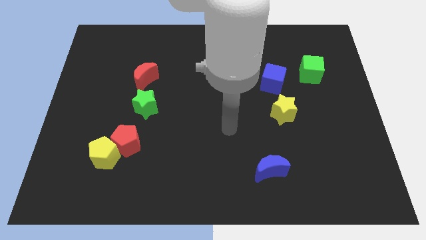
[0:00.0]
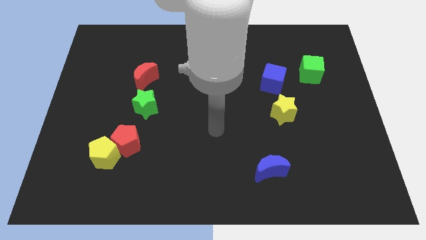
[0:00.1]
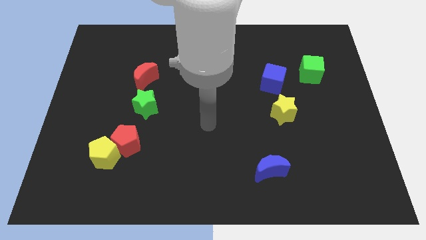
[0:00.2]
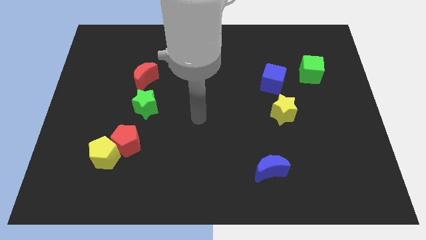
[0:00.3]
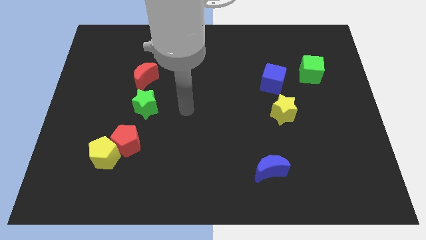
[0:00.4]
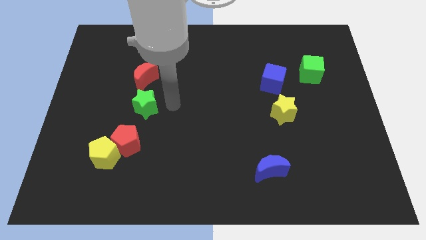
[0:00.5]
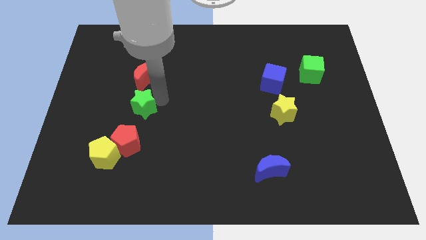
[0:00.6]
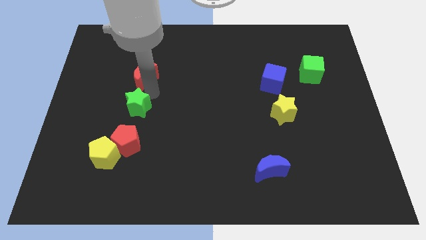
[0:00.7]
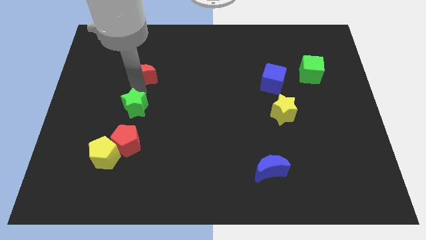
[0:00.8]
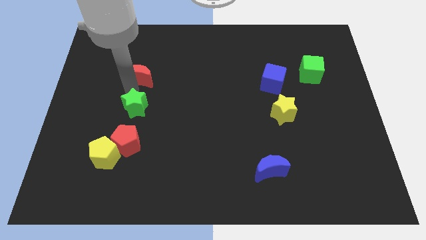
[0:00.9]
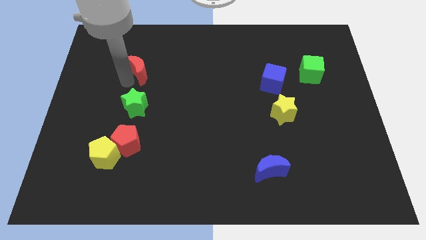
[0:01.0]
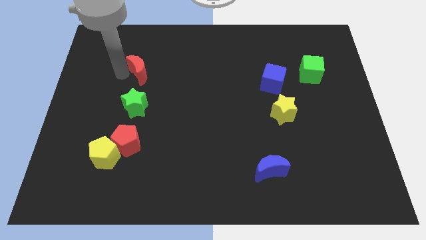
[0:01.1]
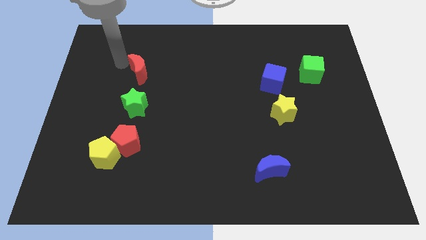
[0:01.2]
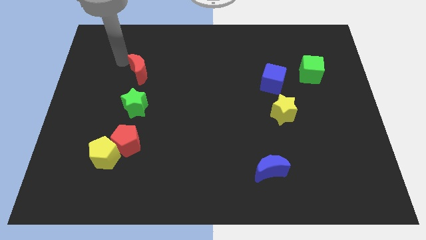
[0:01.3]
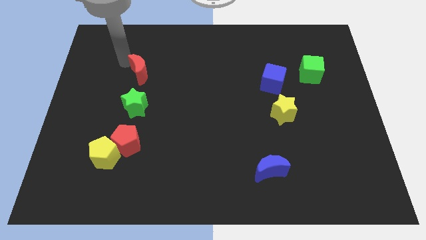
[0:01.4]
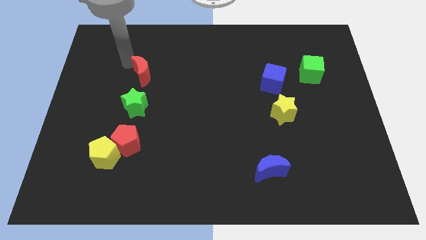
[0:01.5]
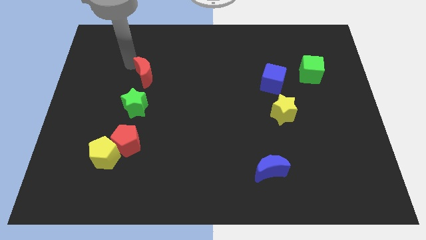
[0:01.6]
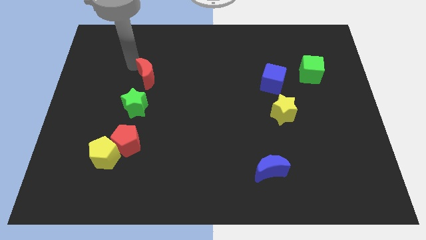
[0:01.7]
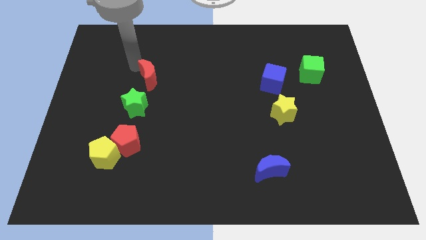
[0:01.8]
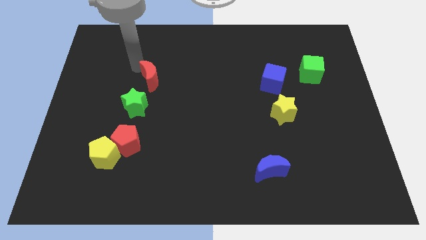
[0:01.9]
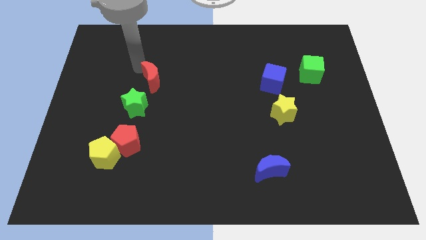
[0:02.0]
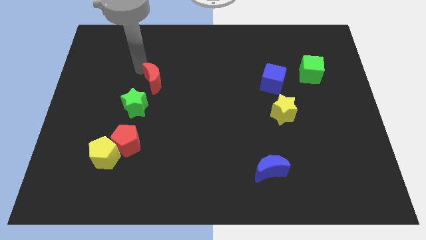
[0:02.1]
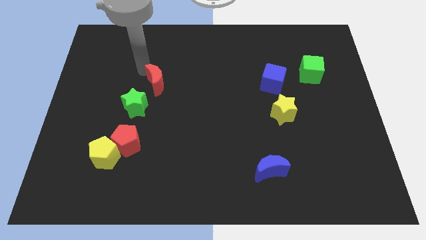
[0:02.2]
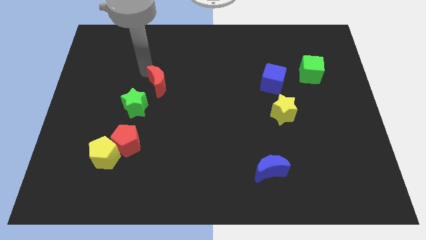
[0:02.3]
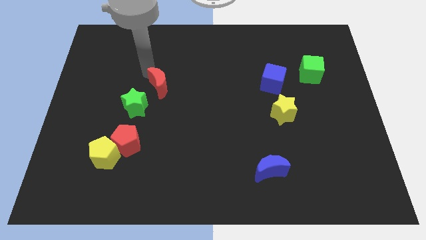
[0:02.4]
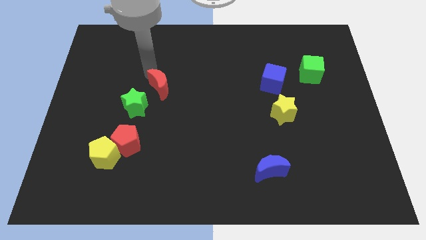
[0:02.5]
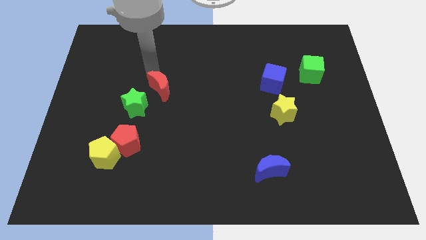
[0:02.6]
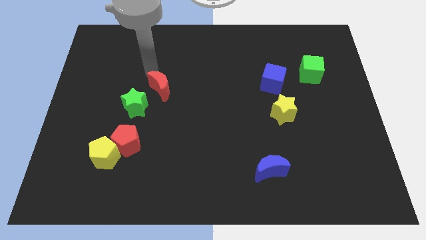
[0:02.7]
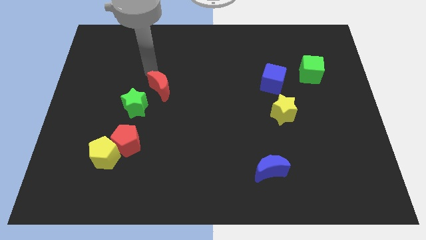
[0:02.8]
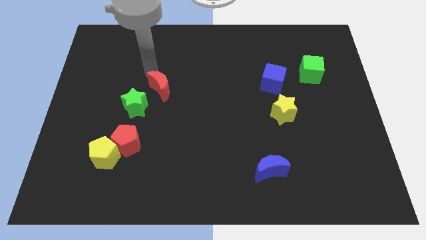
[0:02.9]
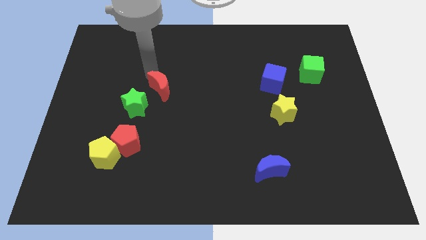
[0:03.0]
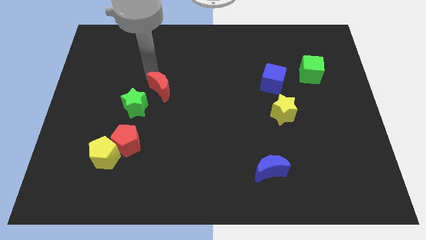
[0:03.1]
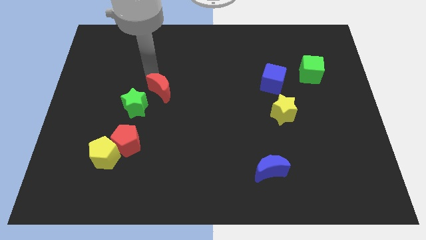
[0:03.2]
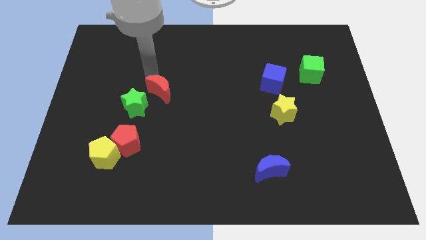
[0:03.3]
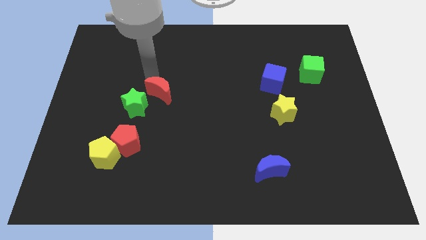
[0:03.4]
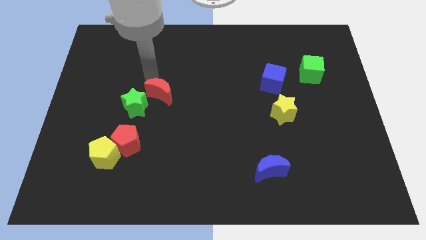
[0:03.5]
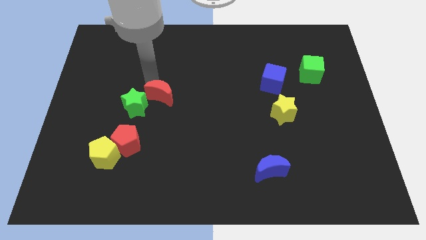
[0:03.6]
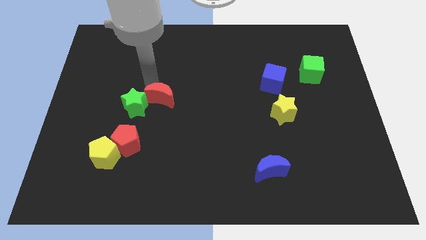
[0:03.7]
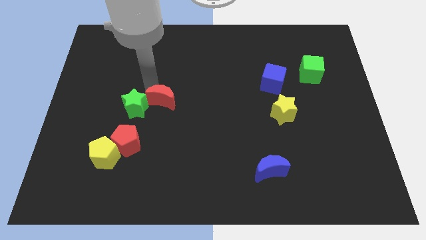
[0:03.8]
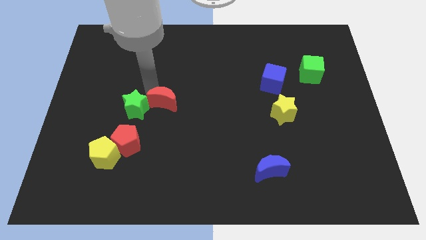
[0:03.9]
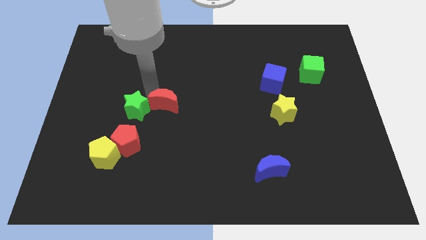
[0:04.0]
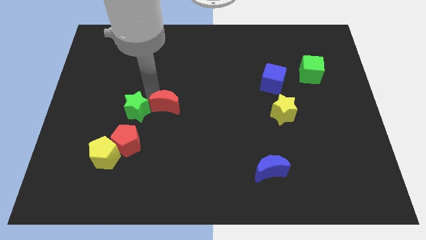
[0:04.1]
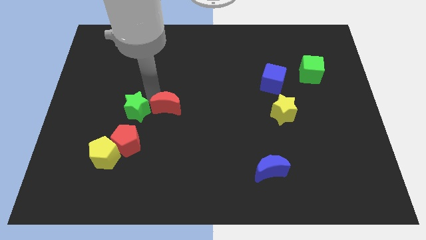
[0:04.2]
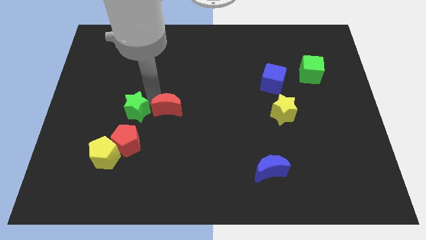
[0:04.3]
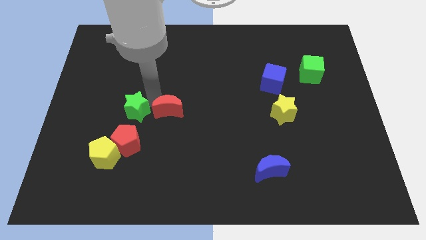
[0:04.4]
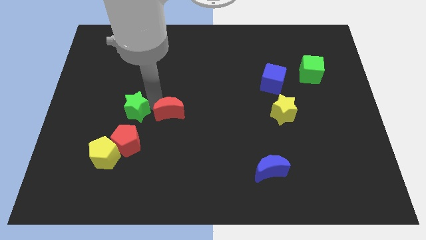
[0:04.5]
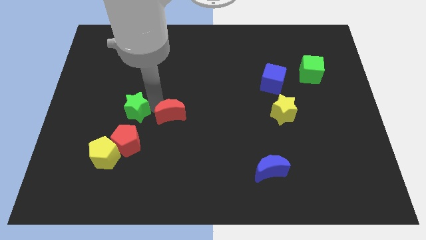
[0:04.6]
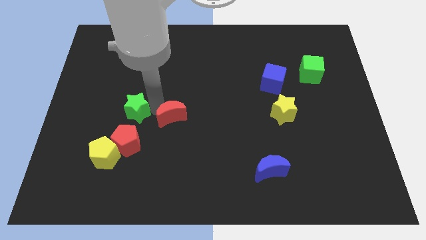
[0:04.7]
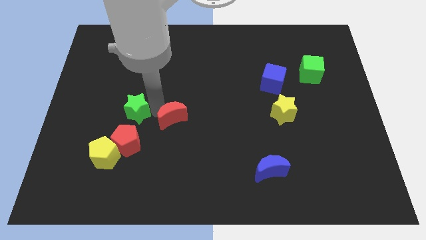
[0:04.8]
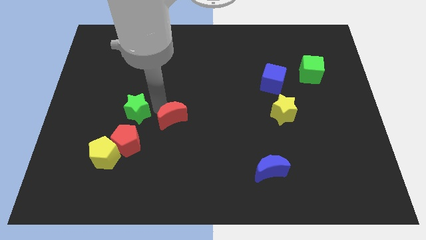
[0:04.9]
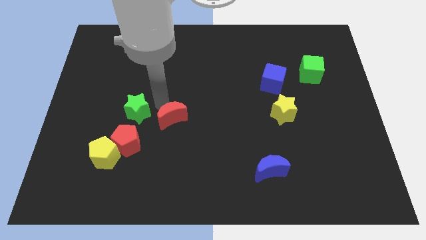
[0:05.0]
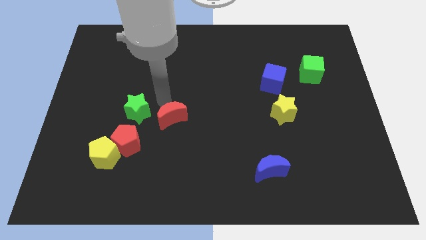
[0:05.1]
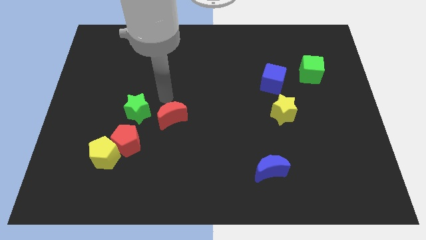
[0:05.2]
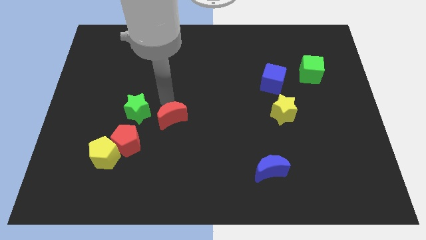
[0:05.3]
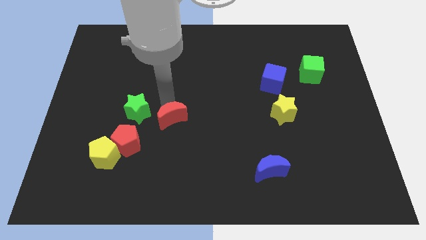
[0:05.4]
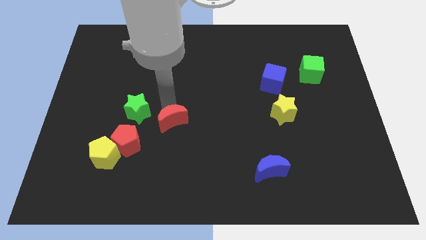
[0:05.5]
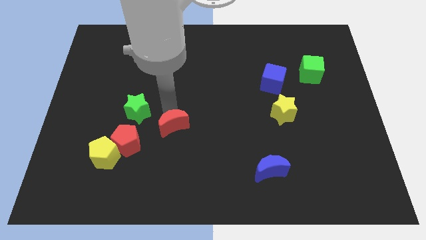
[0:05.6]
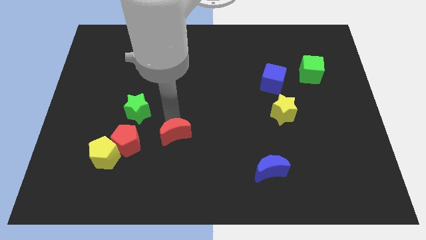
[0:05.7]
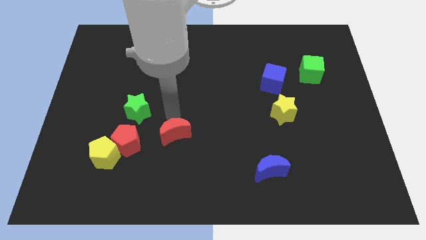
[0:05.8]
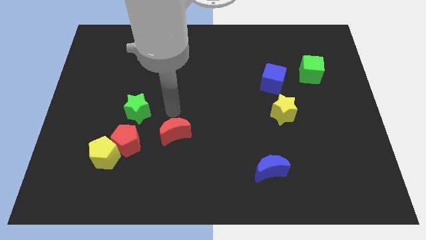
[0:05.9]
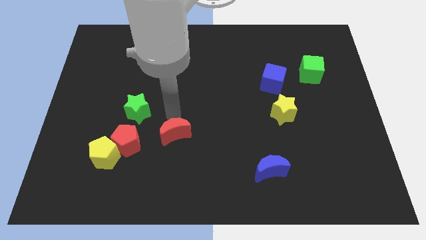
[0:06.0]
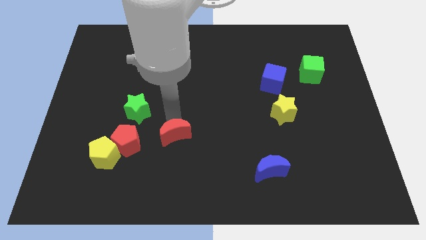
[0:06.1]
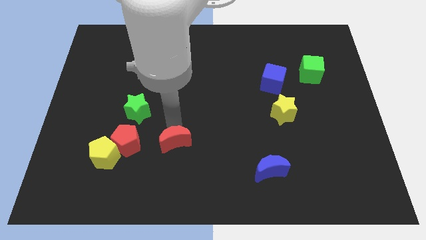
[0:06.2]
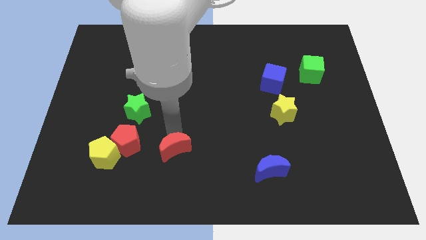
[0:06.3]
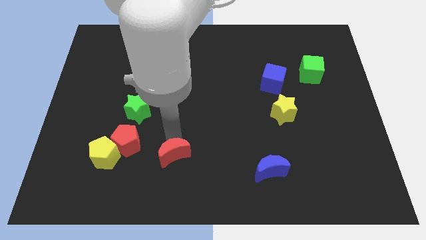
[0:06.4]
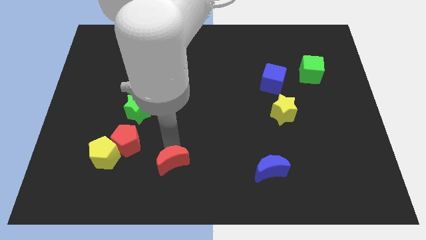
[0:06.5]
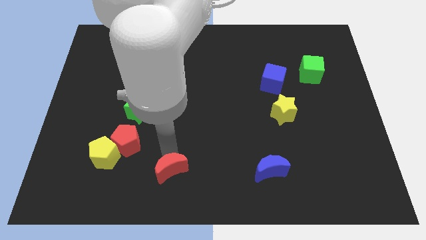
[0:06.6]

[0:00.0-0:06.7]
put the red moon to the bottom side
